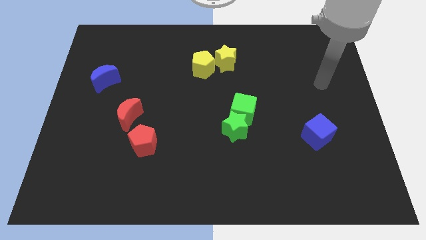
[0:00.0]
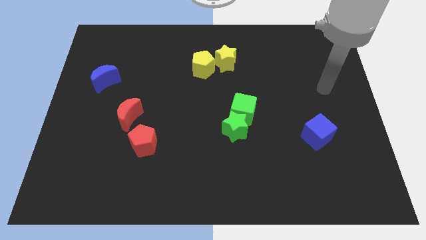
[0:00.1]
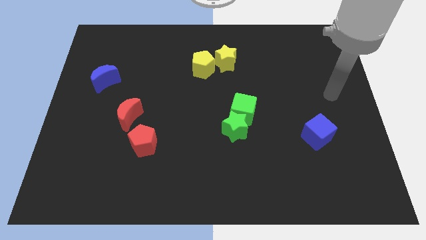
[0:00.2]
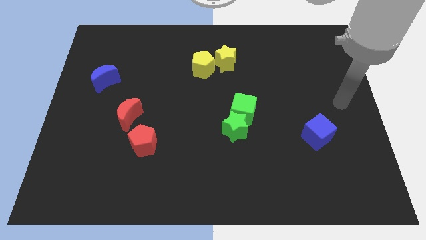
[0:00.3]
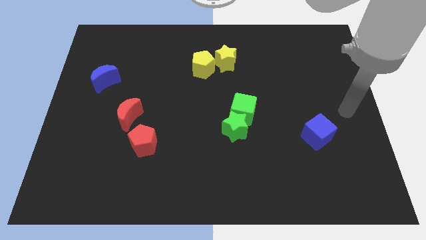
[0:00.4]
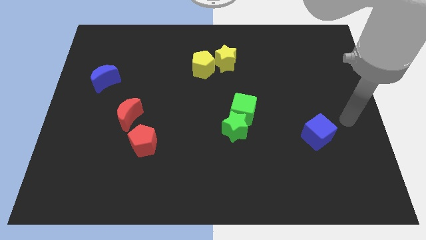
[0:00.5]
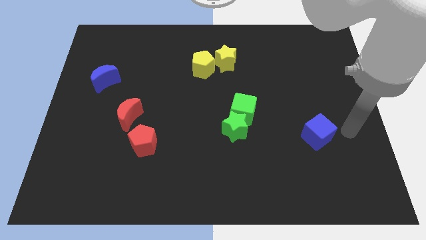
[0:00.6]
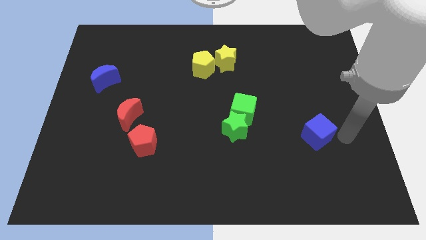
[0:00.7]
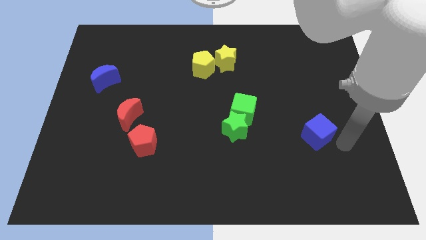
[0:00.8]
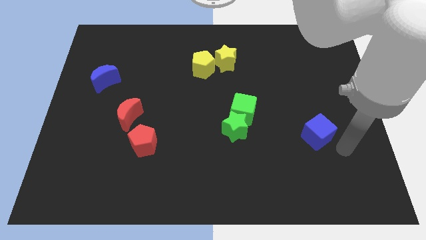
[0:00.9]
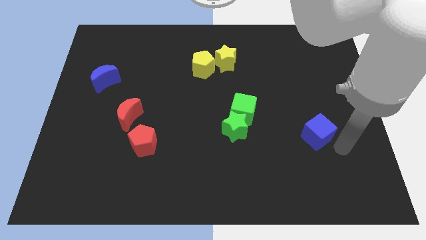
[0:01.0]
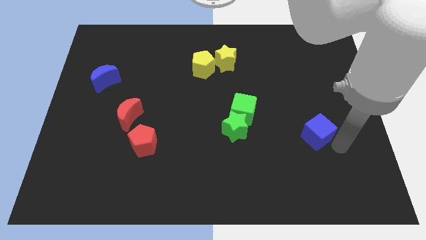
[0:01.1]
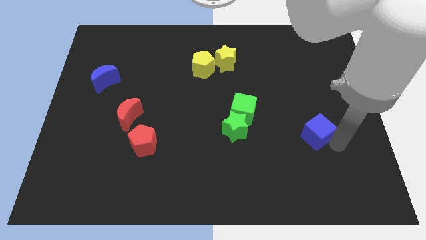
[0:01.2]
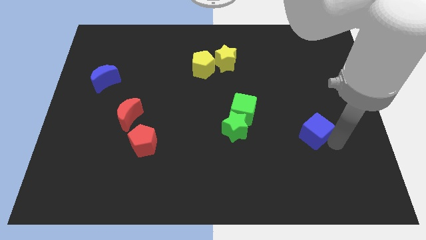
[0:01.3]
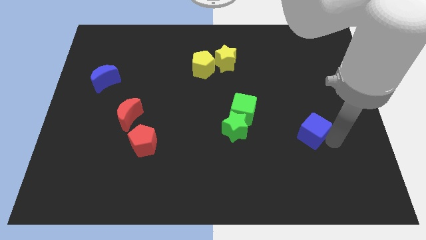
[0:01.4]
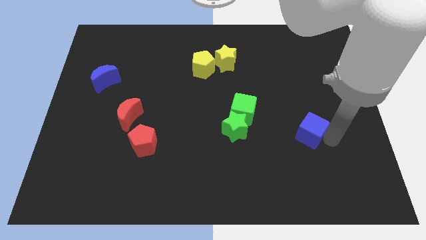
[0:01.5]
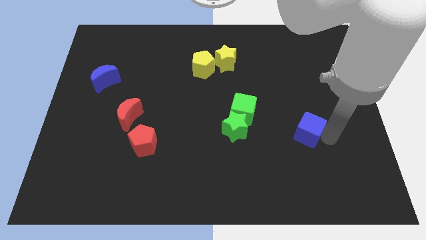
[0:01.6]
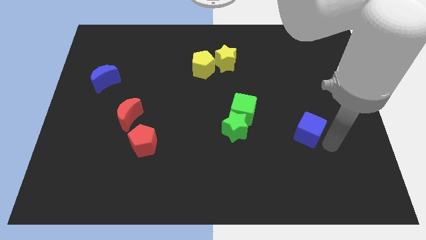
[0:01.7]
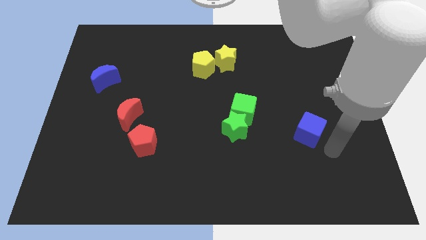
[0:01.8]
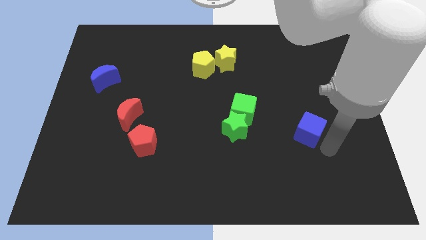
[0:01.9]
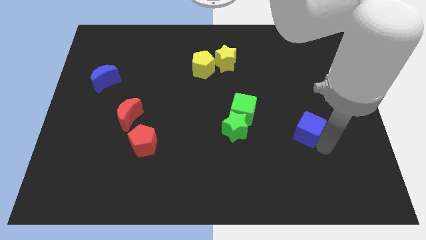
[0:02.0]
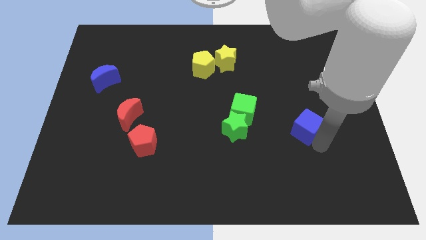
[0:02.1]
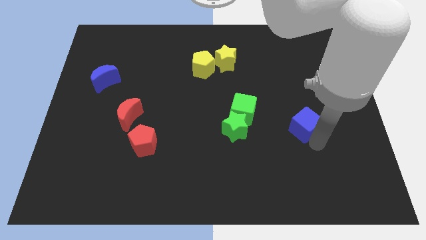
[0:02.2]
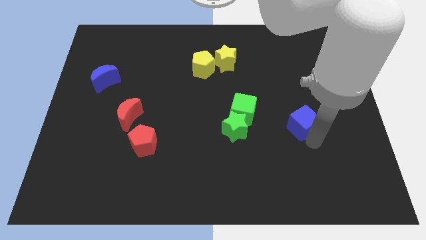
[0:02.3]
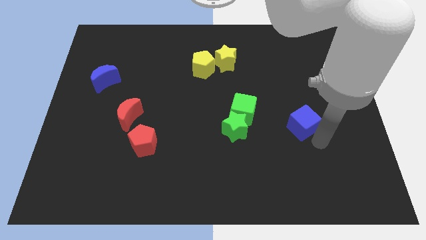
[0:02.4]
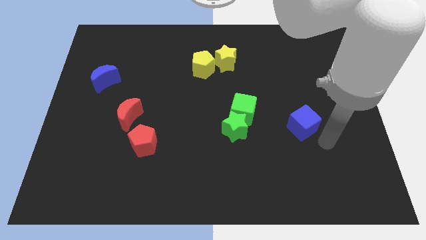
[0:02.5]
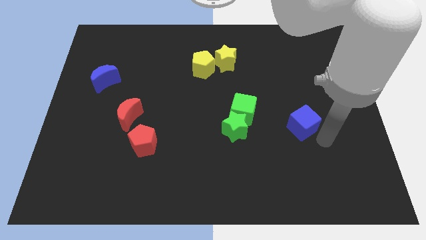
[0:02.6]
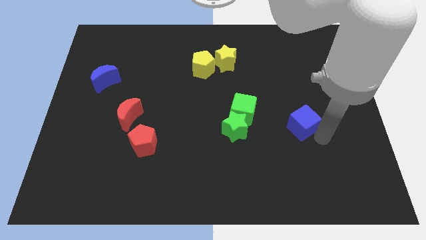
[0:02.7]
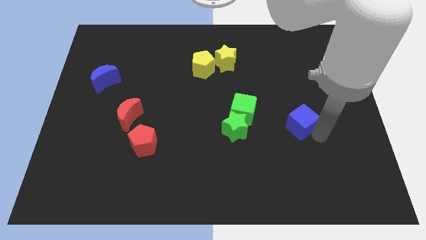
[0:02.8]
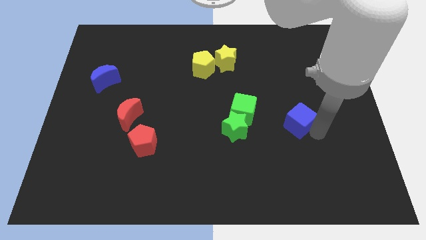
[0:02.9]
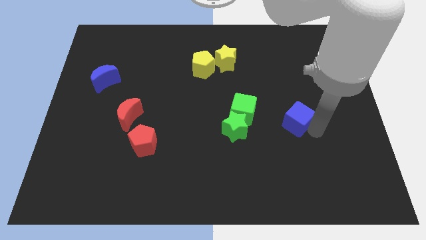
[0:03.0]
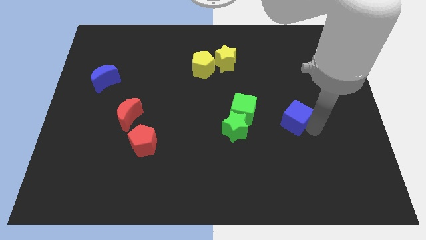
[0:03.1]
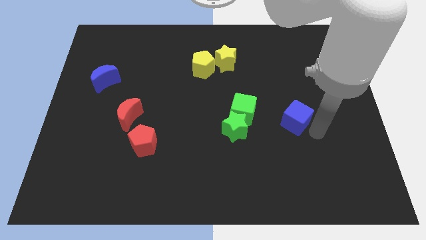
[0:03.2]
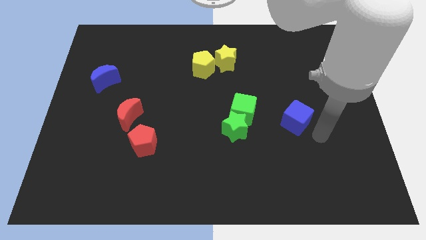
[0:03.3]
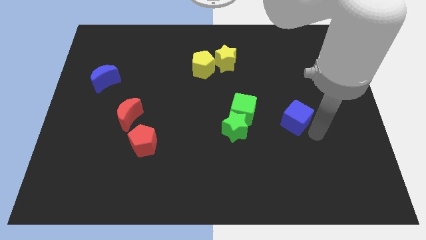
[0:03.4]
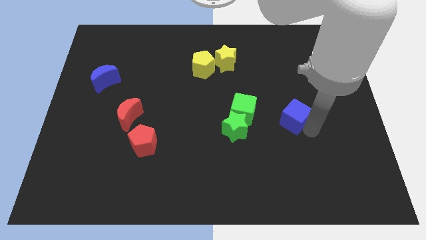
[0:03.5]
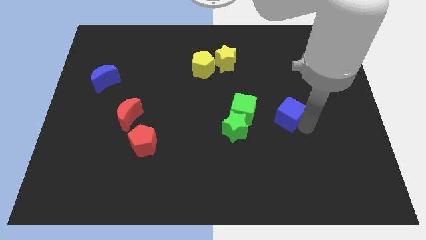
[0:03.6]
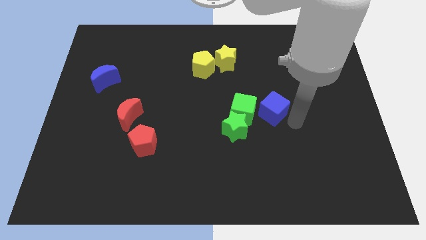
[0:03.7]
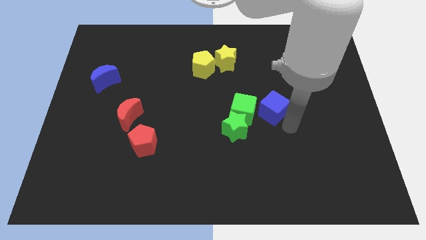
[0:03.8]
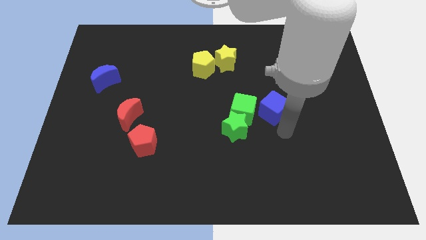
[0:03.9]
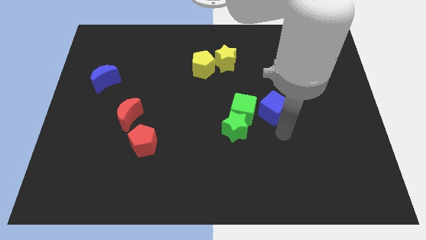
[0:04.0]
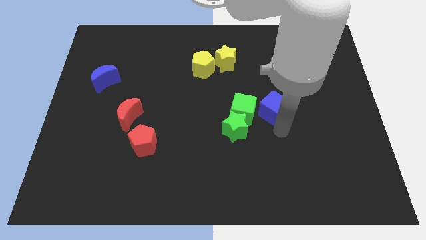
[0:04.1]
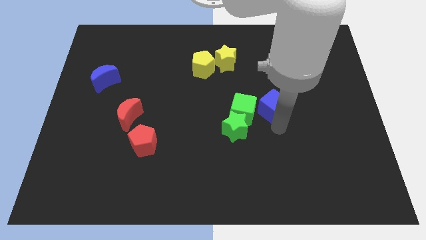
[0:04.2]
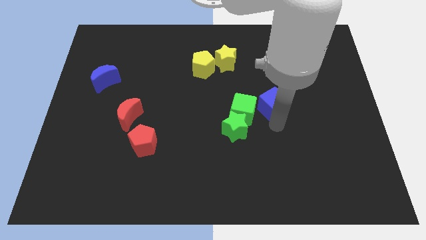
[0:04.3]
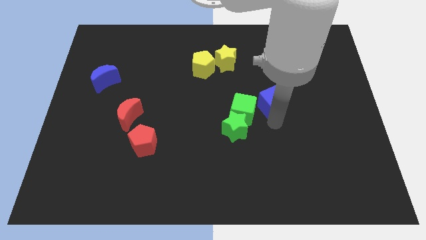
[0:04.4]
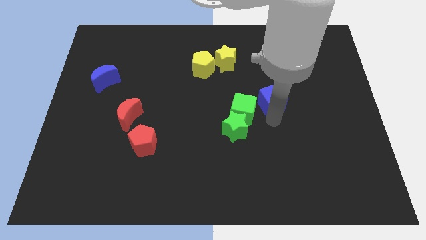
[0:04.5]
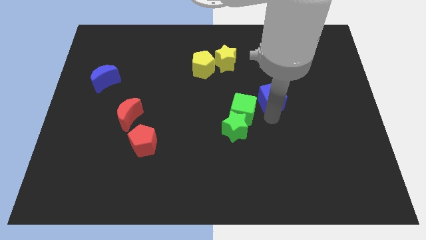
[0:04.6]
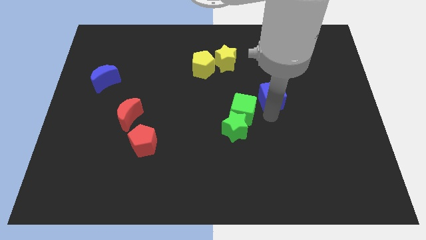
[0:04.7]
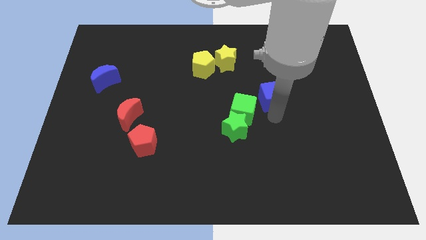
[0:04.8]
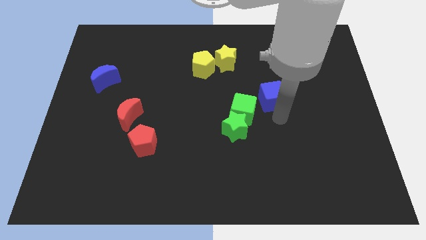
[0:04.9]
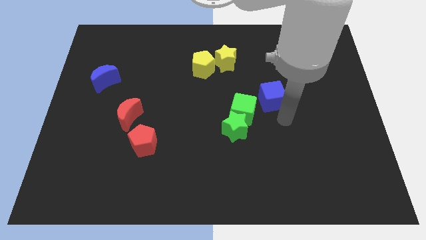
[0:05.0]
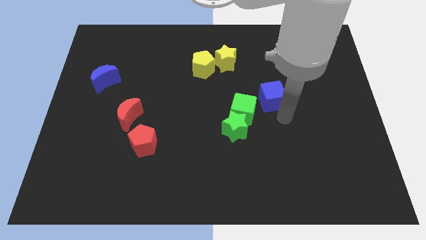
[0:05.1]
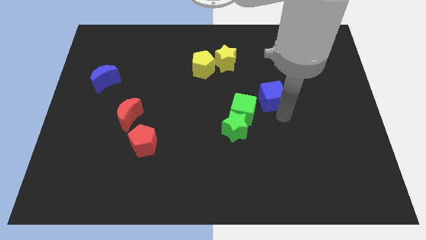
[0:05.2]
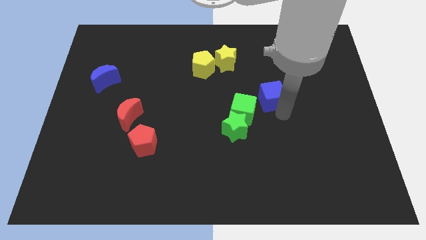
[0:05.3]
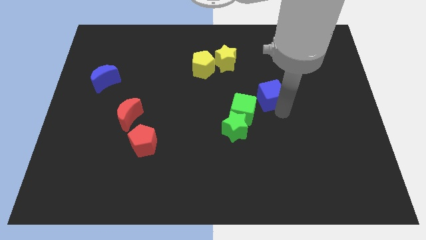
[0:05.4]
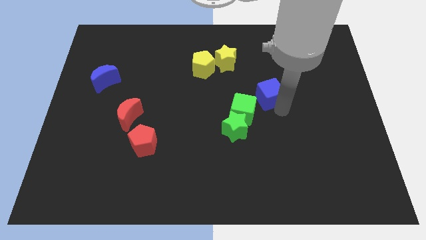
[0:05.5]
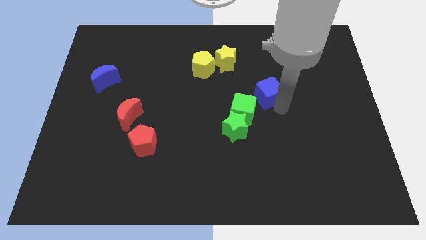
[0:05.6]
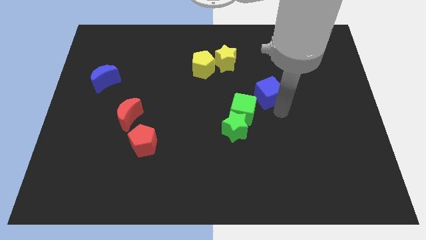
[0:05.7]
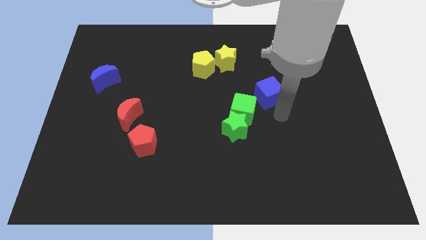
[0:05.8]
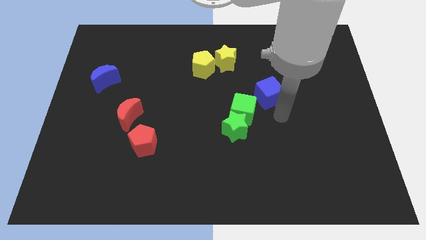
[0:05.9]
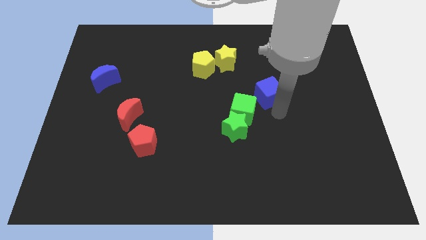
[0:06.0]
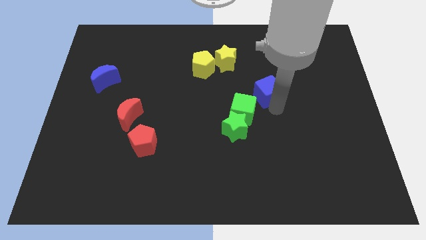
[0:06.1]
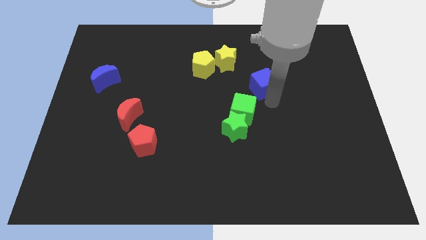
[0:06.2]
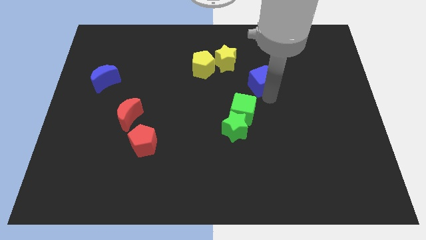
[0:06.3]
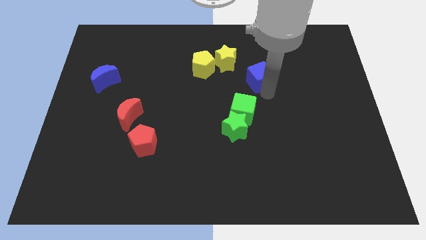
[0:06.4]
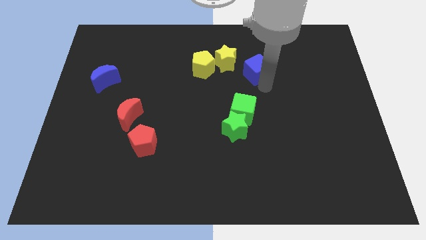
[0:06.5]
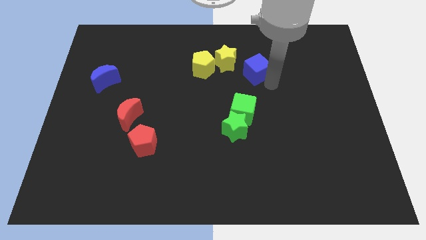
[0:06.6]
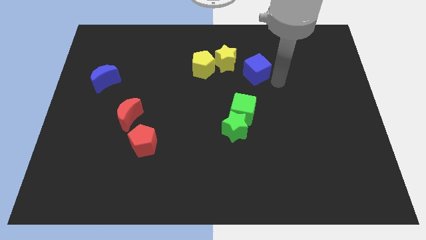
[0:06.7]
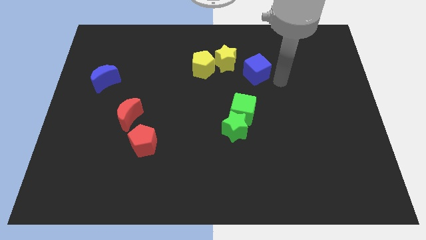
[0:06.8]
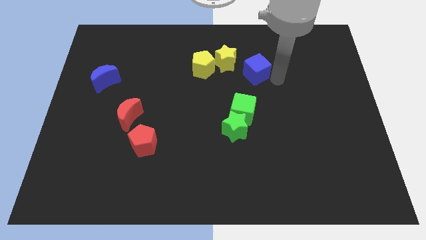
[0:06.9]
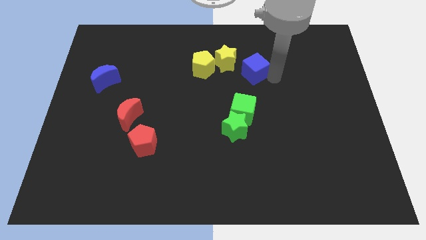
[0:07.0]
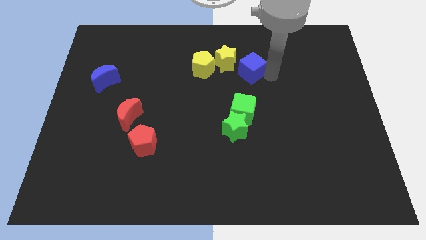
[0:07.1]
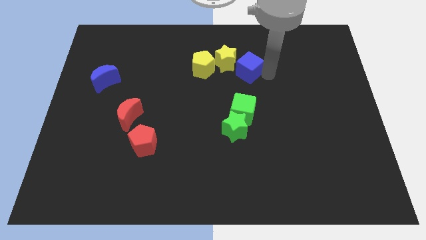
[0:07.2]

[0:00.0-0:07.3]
move the blue cube next to the yellow star

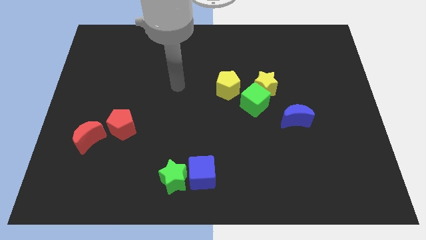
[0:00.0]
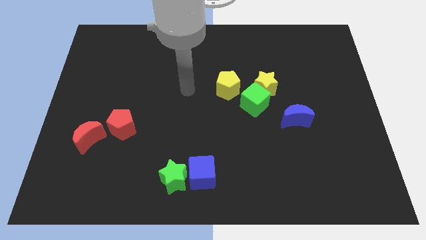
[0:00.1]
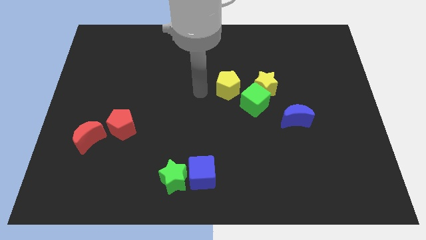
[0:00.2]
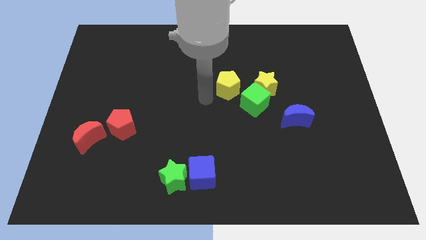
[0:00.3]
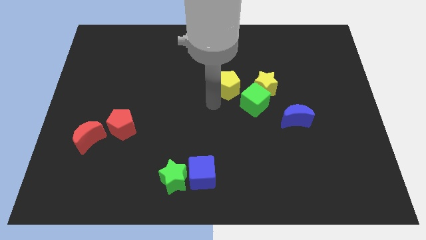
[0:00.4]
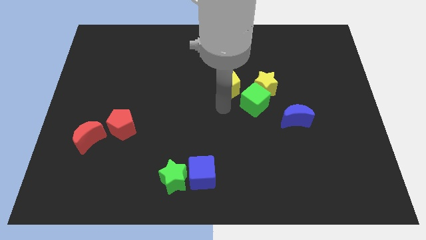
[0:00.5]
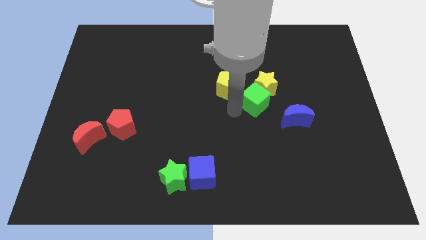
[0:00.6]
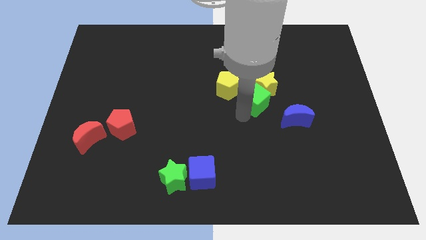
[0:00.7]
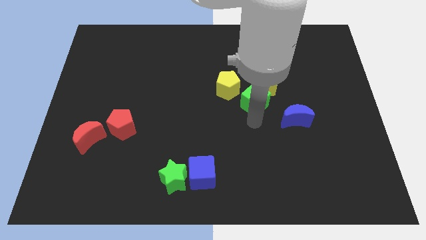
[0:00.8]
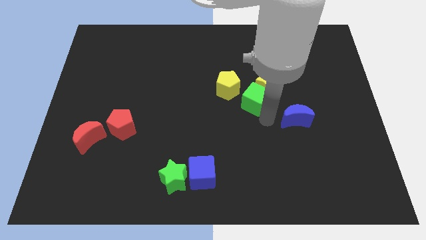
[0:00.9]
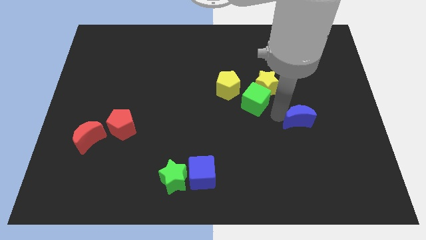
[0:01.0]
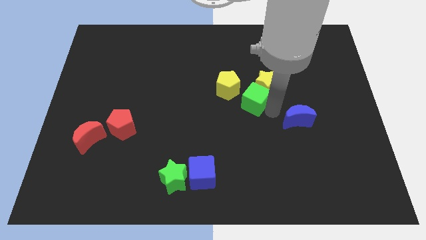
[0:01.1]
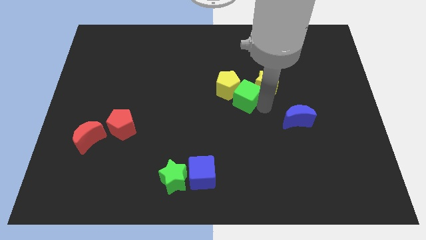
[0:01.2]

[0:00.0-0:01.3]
slide the green cube next to the yellow pentagon
